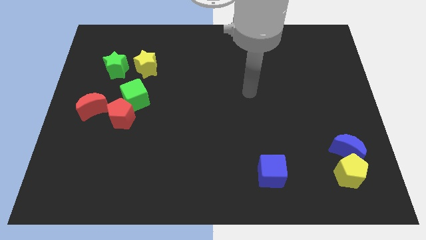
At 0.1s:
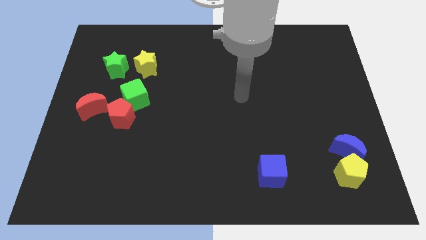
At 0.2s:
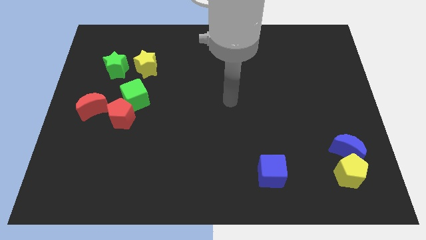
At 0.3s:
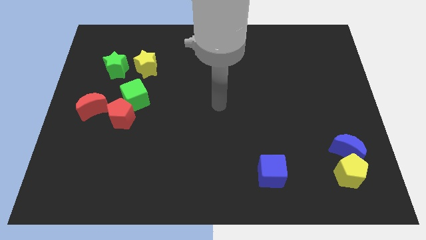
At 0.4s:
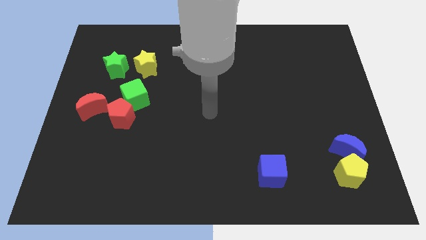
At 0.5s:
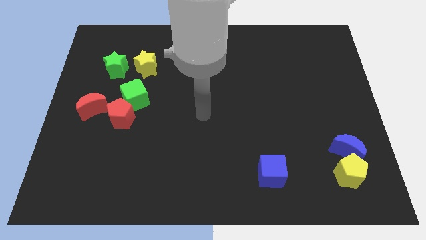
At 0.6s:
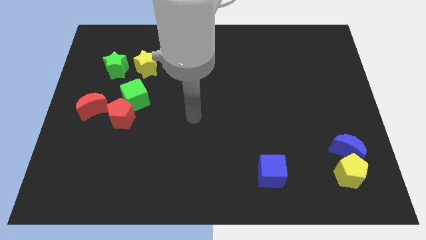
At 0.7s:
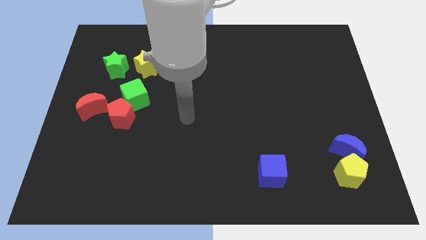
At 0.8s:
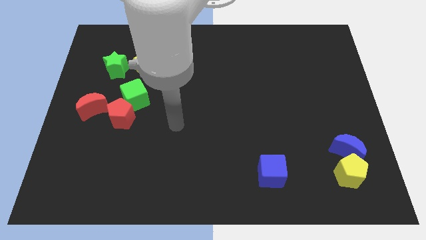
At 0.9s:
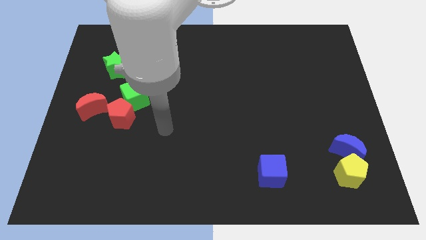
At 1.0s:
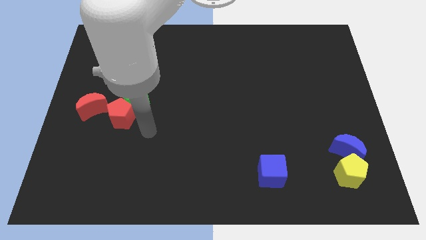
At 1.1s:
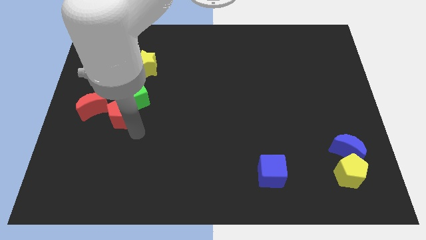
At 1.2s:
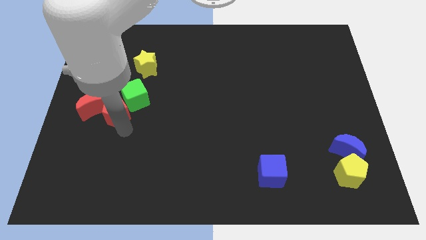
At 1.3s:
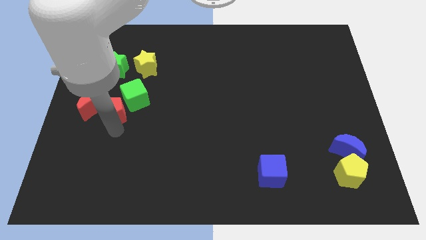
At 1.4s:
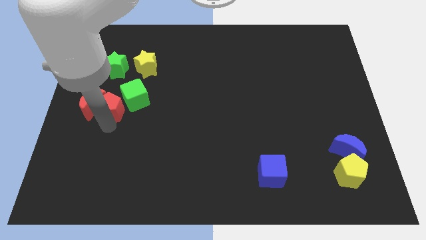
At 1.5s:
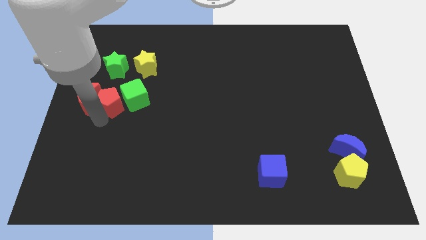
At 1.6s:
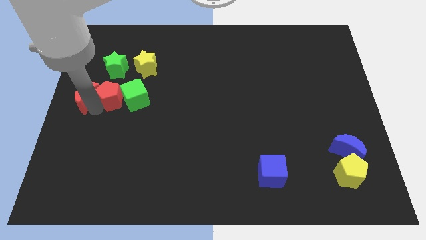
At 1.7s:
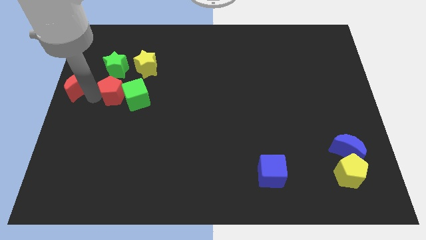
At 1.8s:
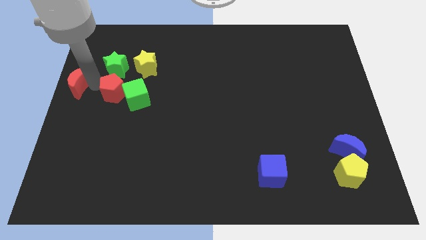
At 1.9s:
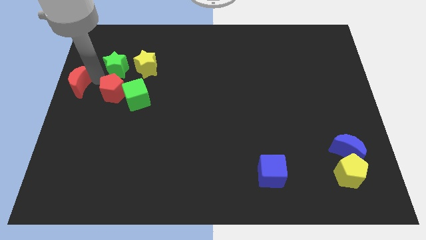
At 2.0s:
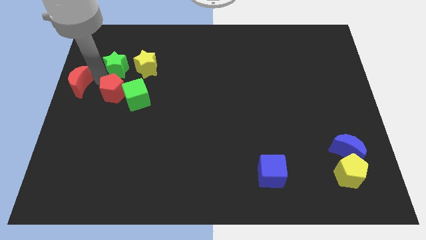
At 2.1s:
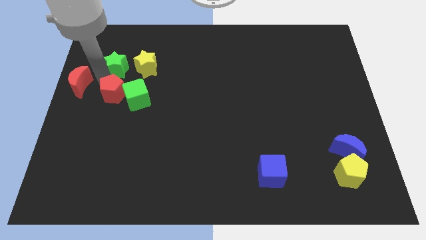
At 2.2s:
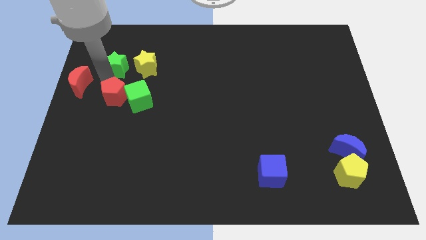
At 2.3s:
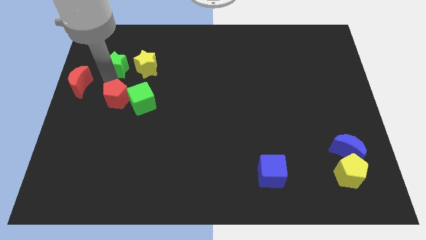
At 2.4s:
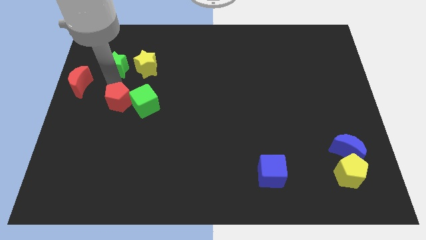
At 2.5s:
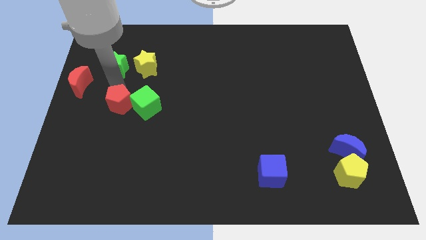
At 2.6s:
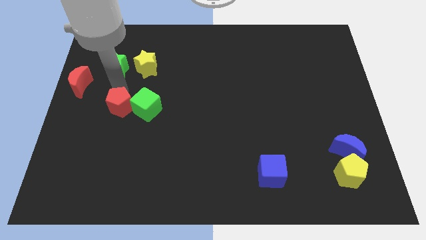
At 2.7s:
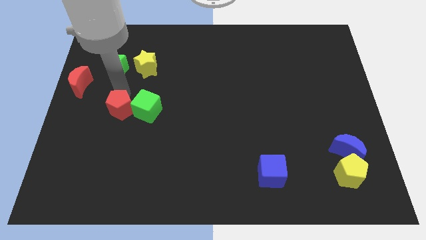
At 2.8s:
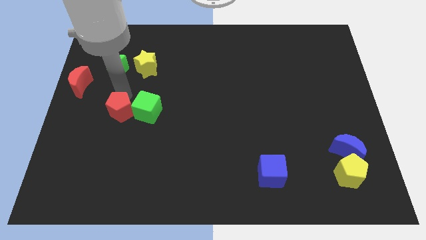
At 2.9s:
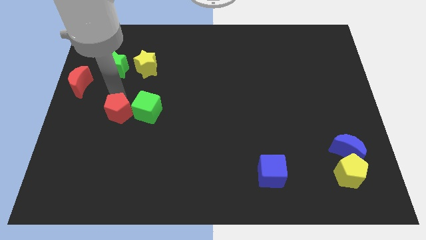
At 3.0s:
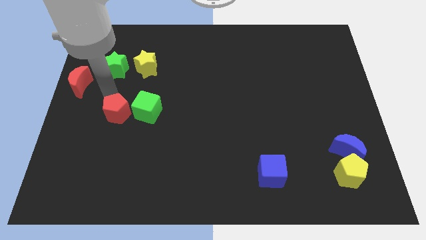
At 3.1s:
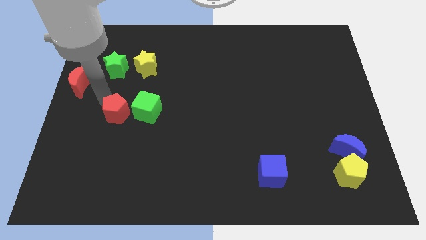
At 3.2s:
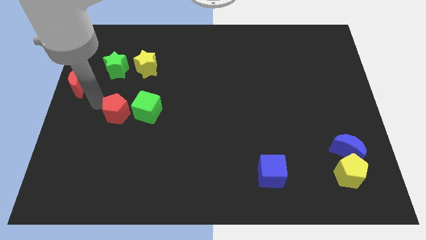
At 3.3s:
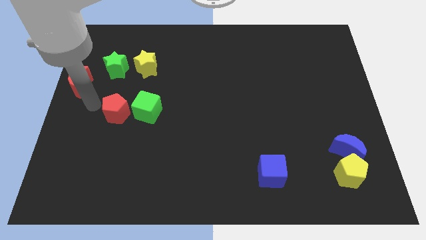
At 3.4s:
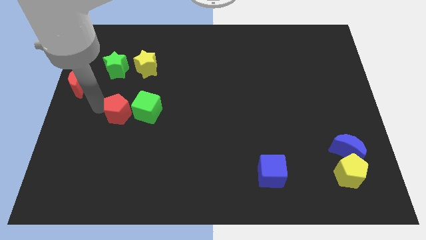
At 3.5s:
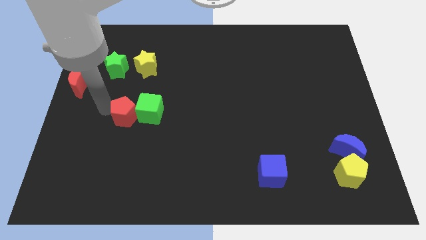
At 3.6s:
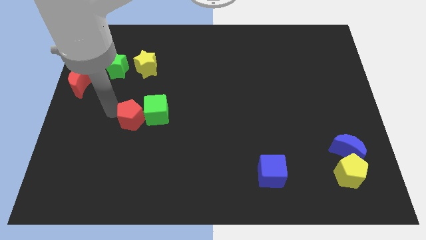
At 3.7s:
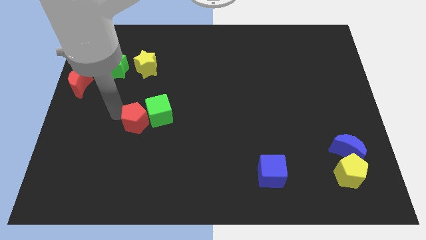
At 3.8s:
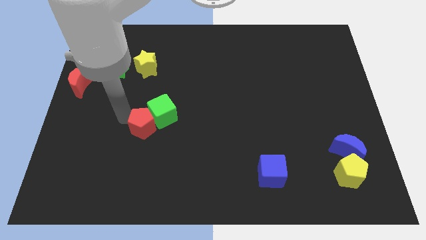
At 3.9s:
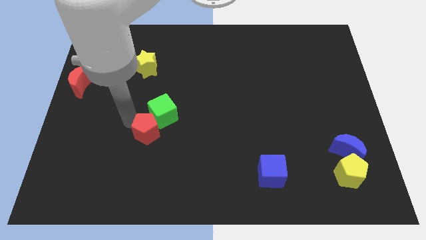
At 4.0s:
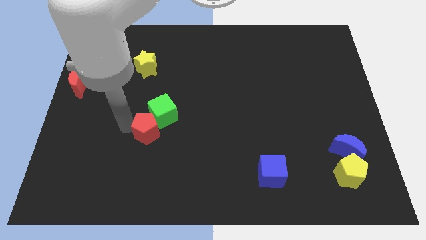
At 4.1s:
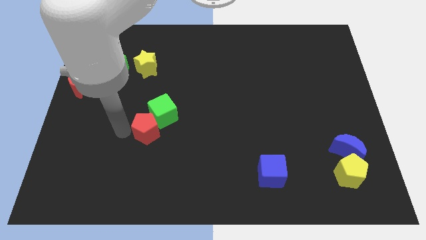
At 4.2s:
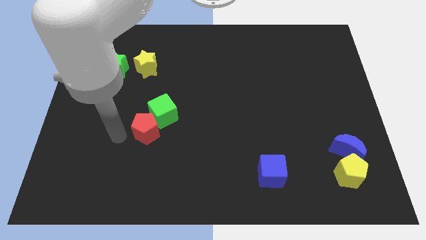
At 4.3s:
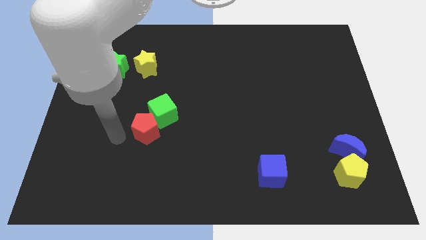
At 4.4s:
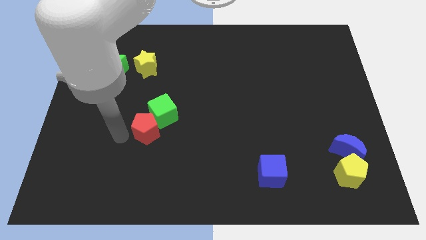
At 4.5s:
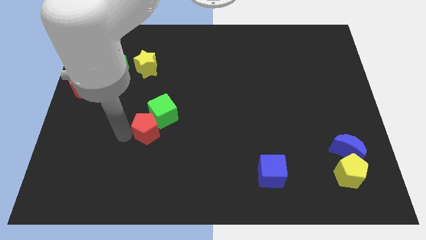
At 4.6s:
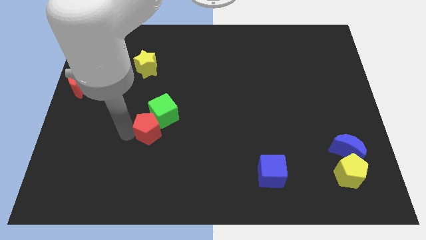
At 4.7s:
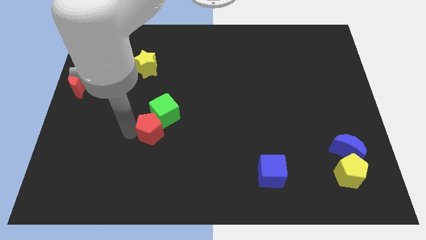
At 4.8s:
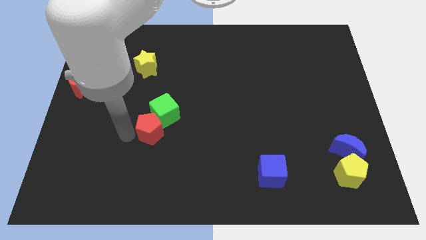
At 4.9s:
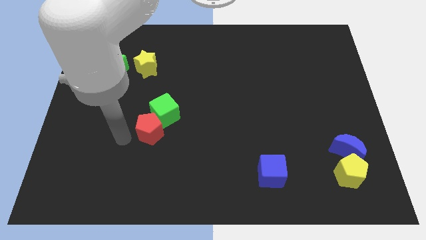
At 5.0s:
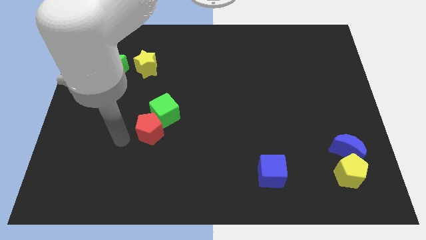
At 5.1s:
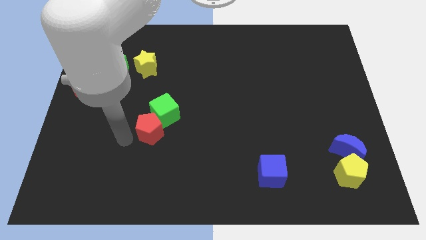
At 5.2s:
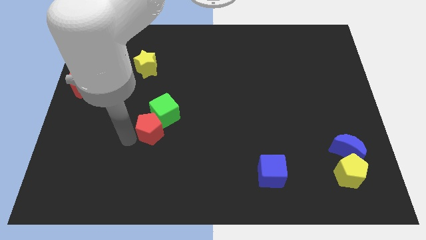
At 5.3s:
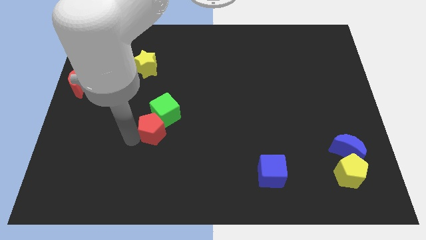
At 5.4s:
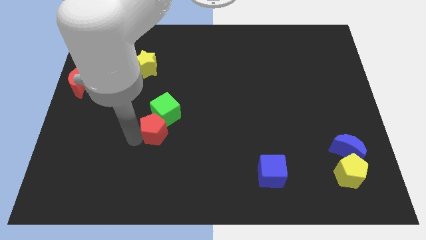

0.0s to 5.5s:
move the red pentagon slightly right

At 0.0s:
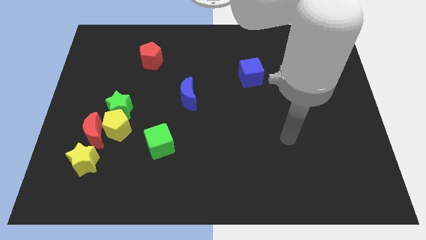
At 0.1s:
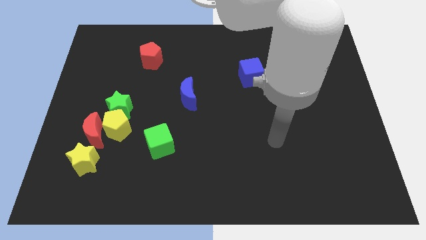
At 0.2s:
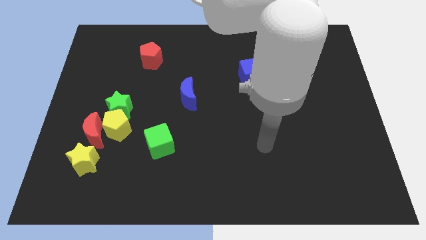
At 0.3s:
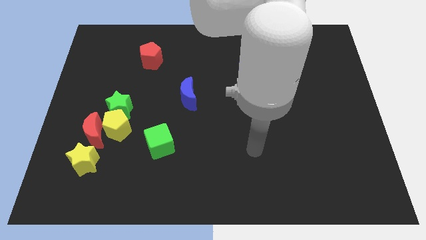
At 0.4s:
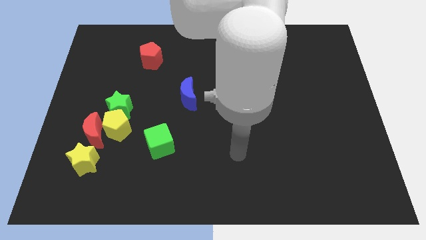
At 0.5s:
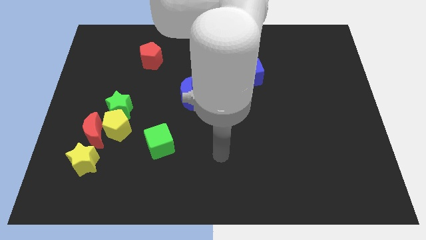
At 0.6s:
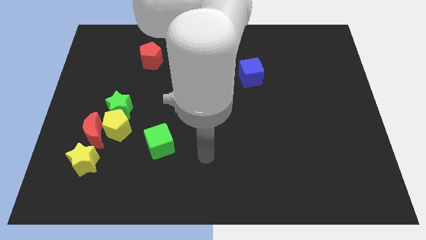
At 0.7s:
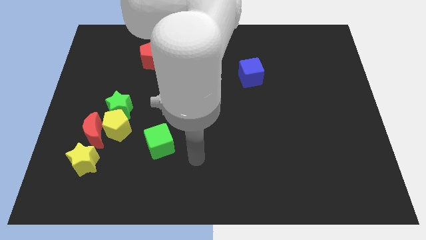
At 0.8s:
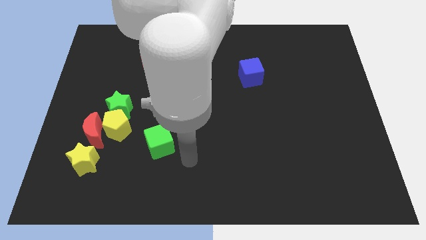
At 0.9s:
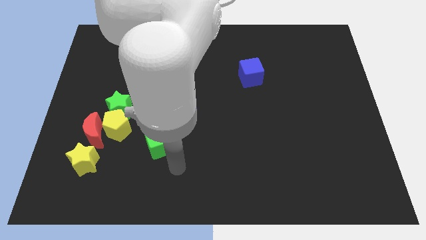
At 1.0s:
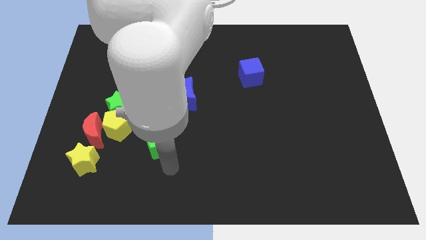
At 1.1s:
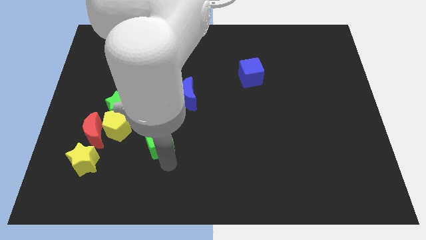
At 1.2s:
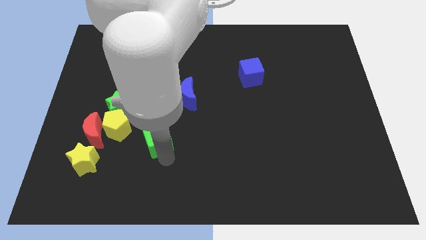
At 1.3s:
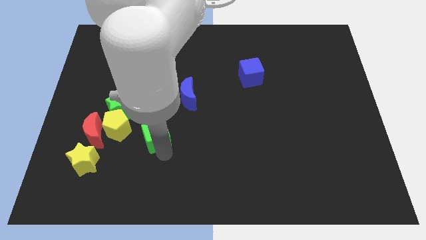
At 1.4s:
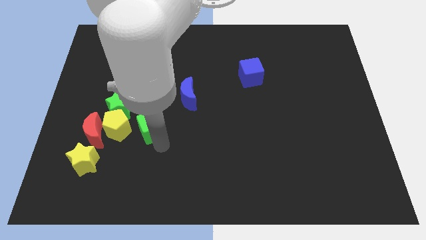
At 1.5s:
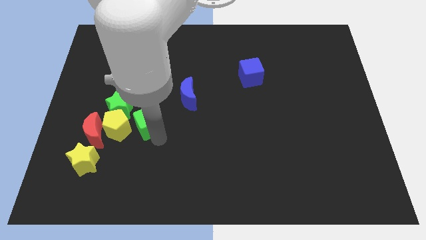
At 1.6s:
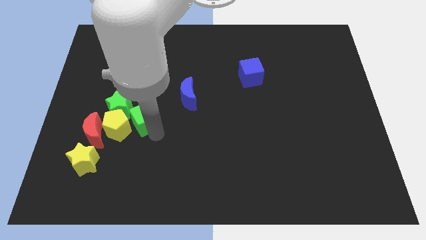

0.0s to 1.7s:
push the green cube upwards and left diagonally slightly

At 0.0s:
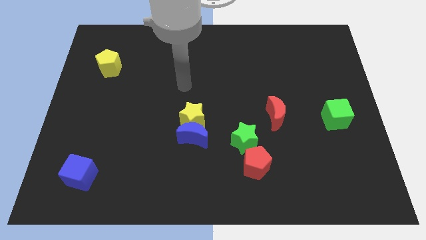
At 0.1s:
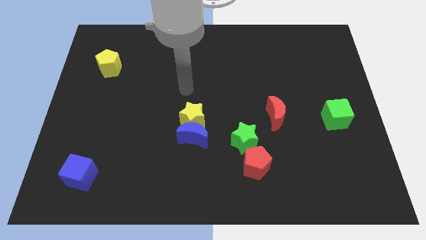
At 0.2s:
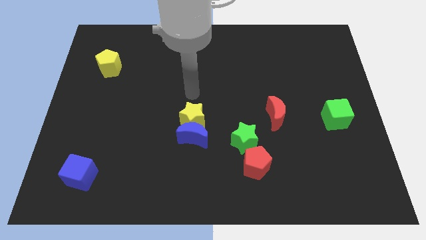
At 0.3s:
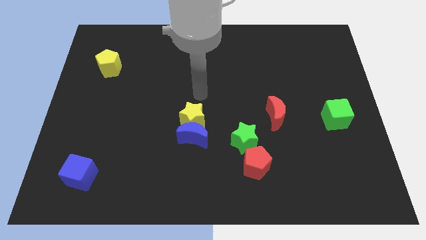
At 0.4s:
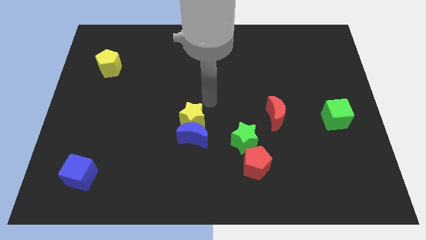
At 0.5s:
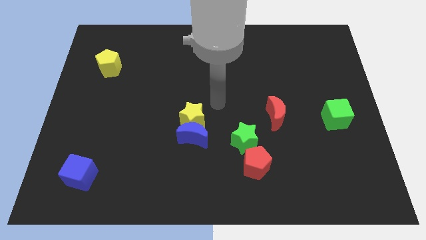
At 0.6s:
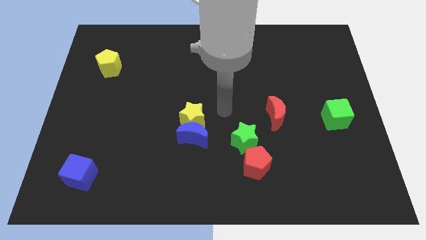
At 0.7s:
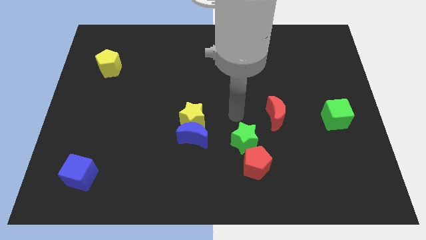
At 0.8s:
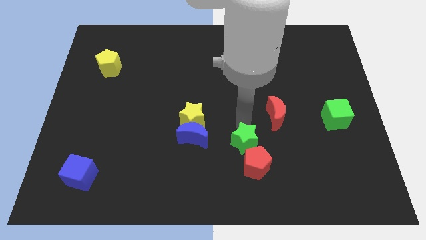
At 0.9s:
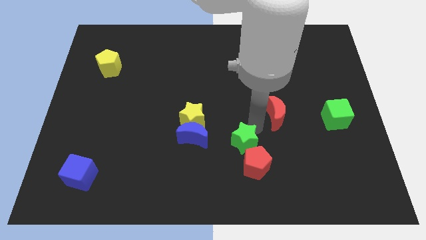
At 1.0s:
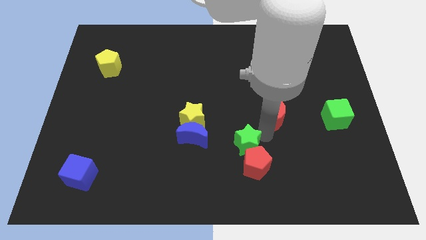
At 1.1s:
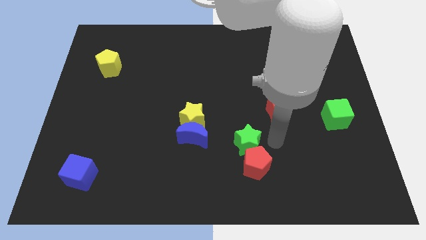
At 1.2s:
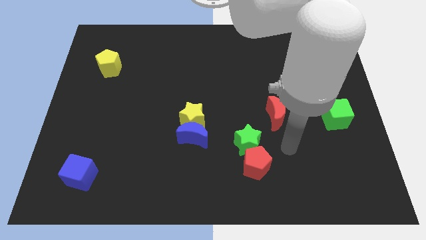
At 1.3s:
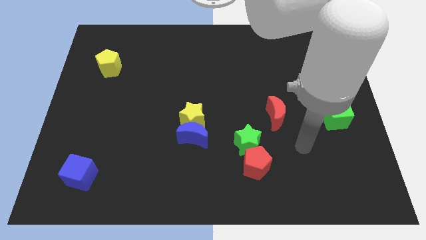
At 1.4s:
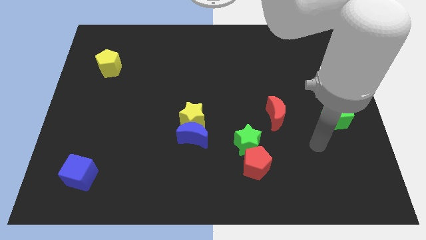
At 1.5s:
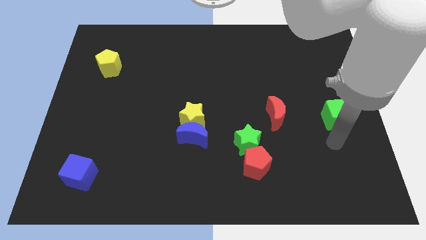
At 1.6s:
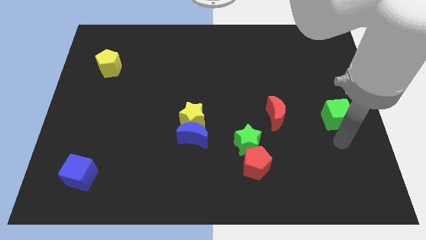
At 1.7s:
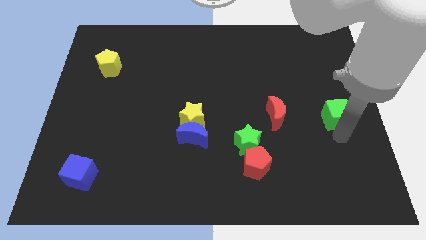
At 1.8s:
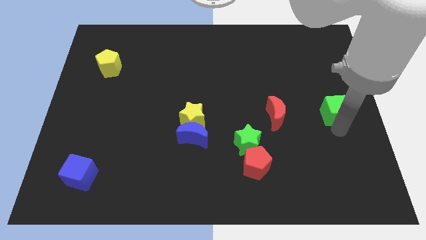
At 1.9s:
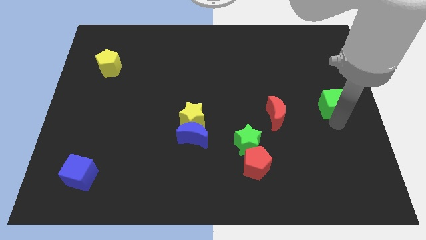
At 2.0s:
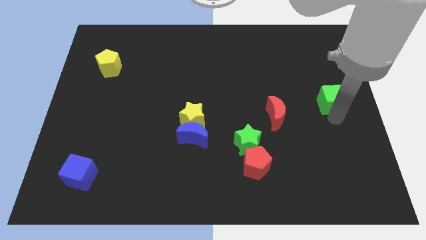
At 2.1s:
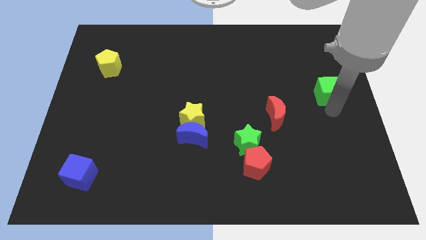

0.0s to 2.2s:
move the green cube a little bit upwards
